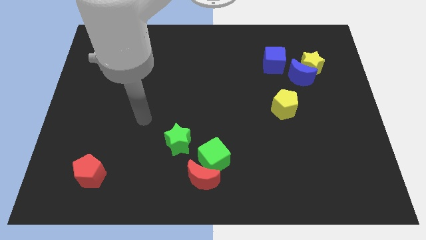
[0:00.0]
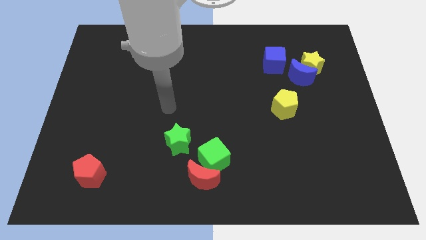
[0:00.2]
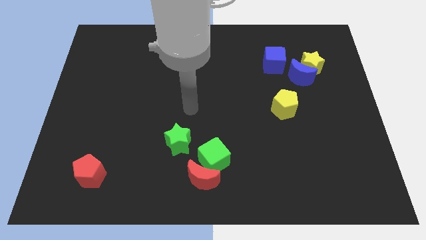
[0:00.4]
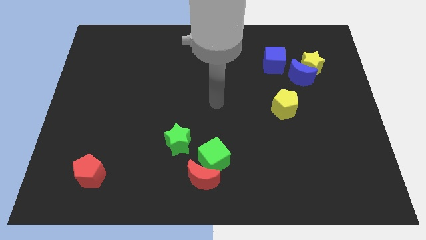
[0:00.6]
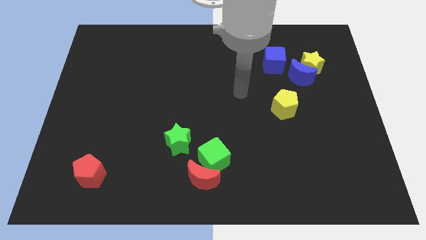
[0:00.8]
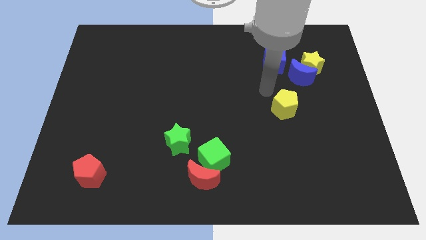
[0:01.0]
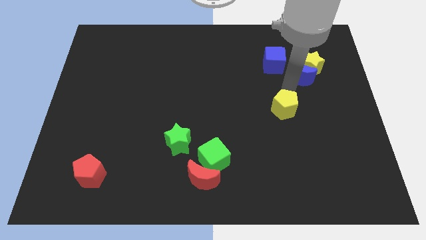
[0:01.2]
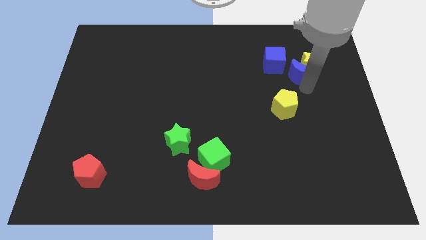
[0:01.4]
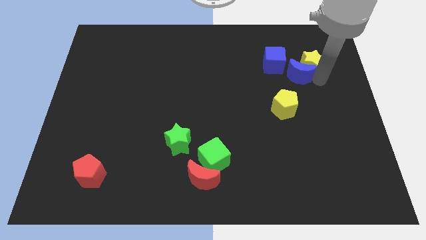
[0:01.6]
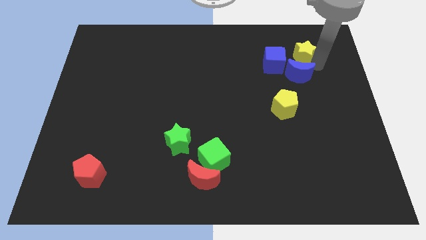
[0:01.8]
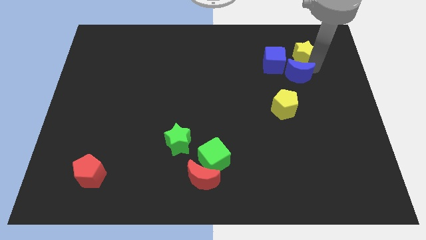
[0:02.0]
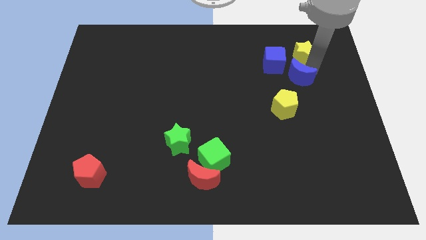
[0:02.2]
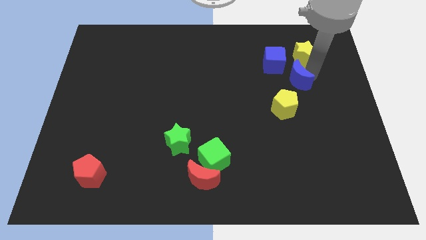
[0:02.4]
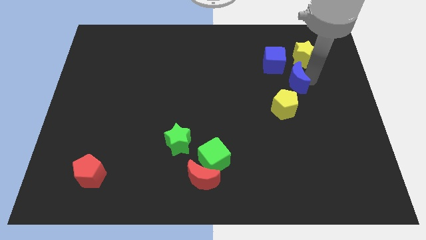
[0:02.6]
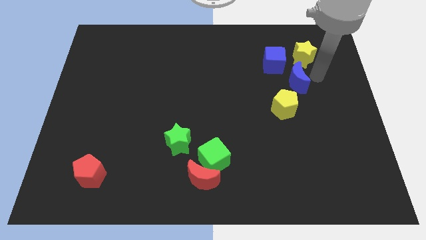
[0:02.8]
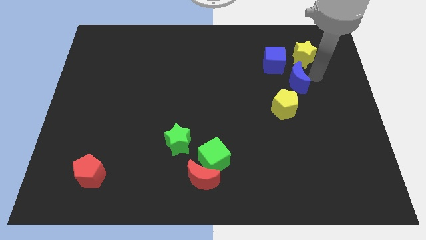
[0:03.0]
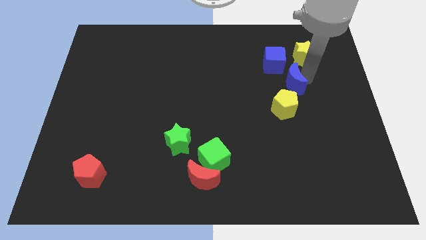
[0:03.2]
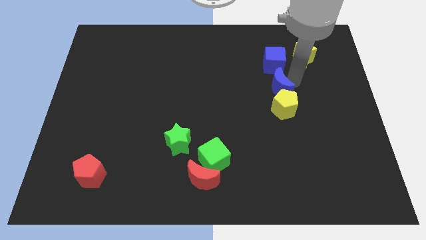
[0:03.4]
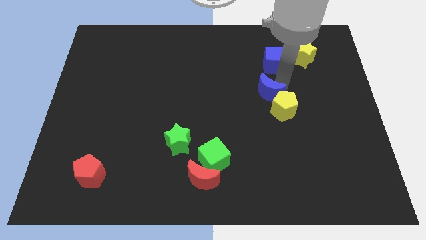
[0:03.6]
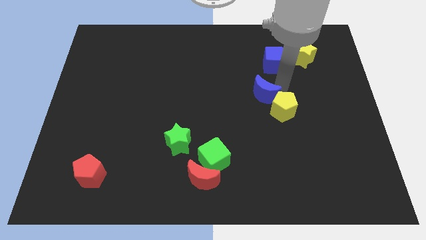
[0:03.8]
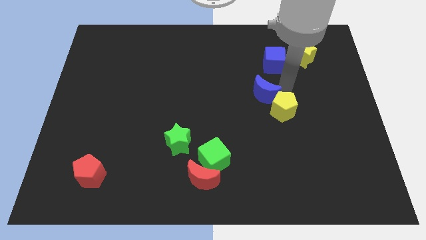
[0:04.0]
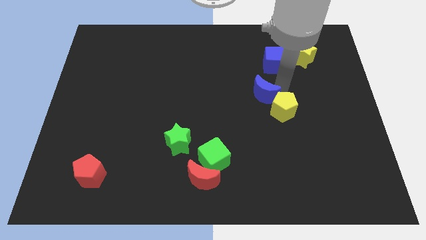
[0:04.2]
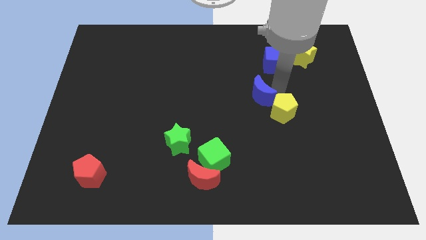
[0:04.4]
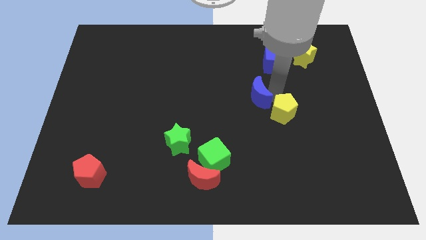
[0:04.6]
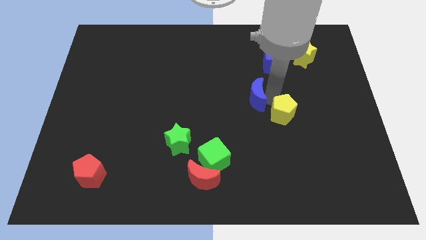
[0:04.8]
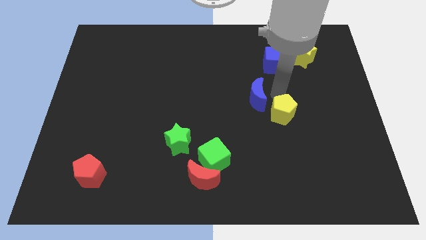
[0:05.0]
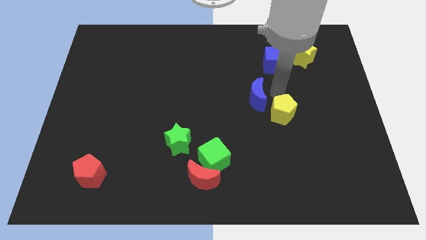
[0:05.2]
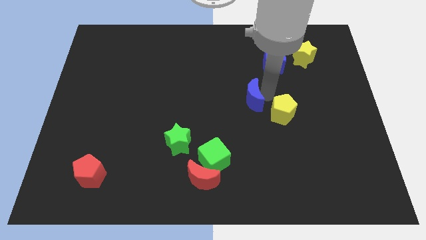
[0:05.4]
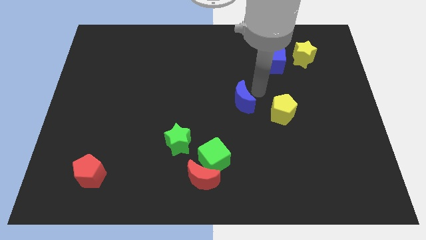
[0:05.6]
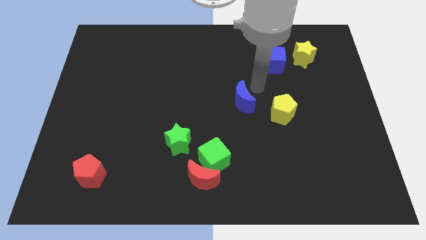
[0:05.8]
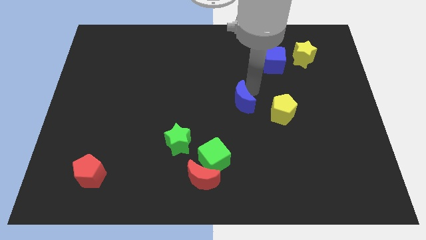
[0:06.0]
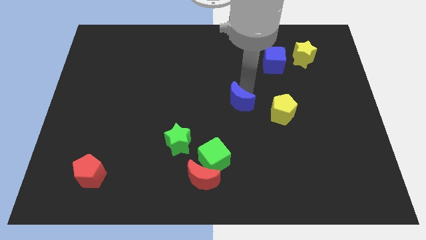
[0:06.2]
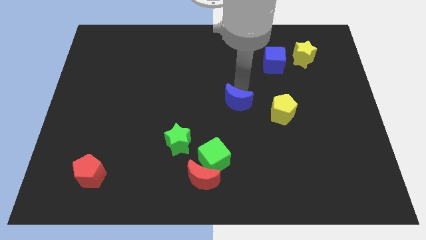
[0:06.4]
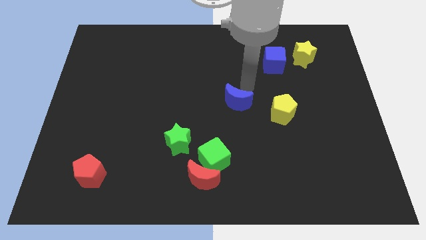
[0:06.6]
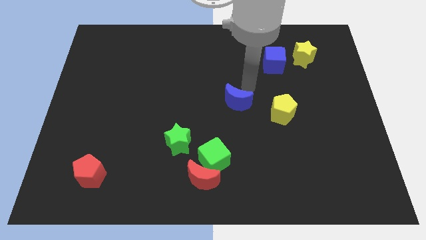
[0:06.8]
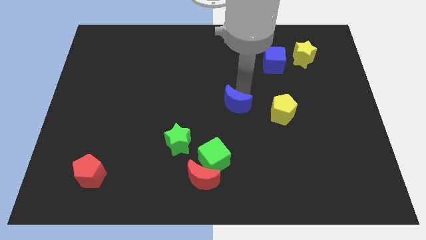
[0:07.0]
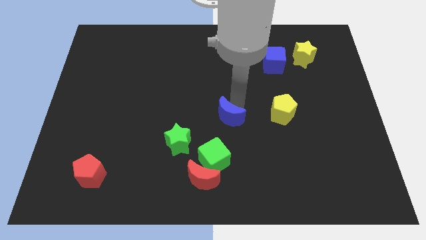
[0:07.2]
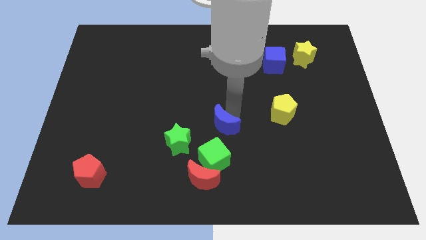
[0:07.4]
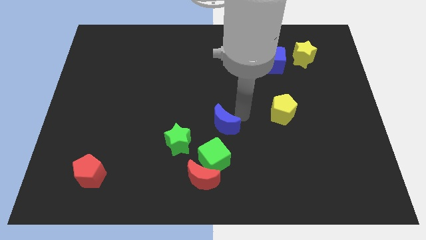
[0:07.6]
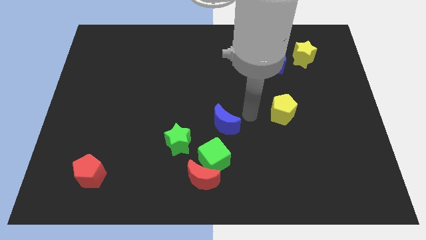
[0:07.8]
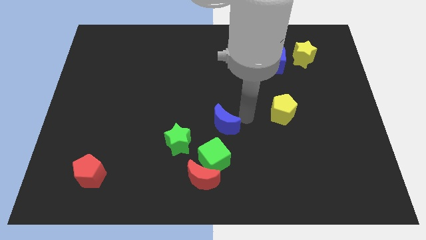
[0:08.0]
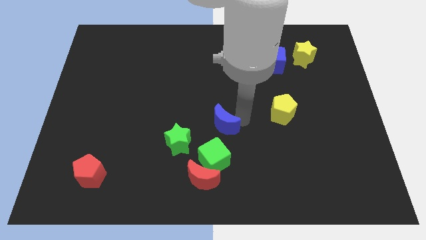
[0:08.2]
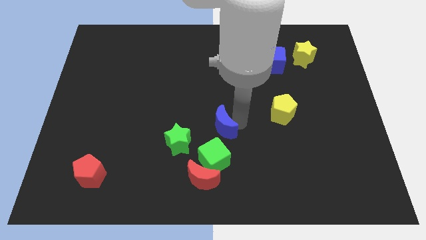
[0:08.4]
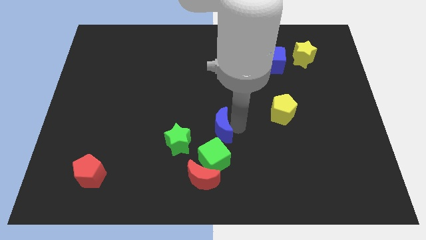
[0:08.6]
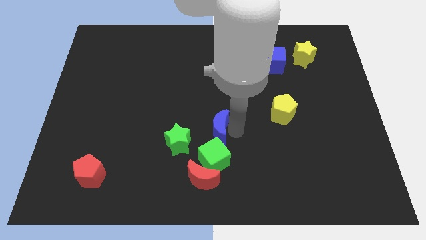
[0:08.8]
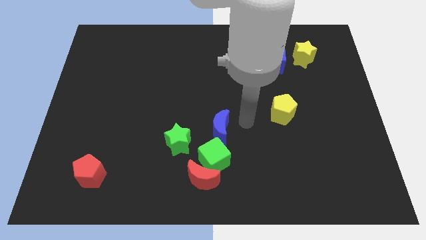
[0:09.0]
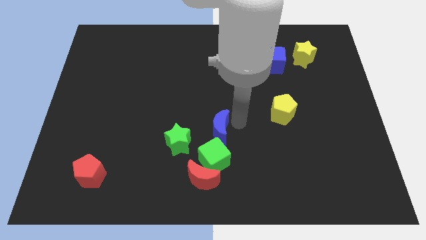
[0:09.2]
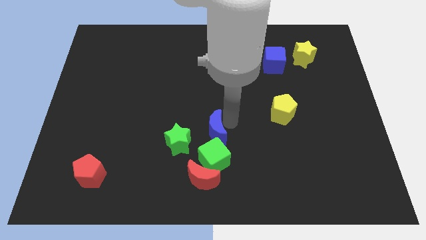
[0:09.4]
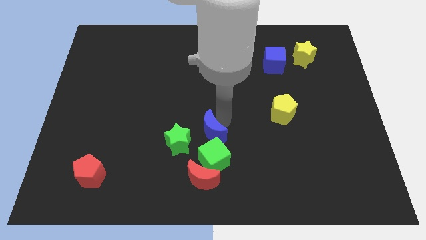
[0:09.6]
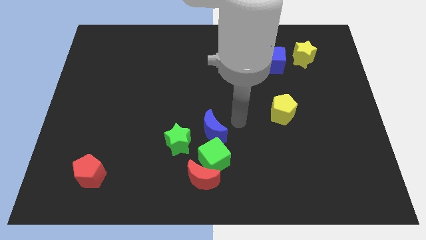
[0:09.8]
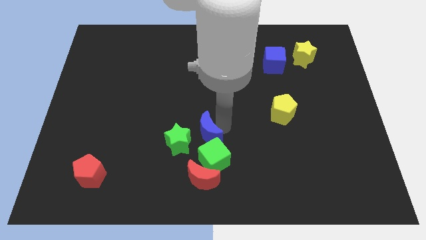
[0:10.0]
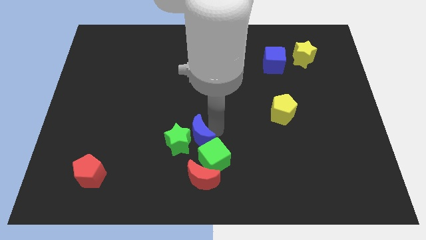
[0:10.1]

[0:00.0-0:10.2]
push the blue moon next to the green star

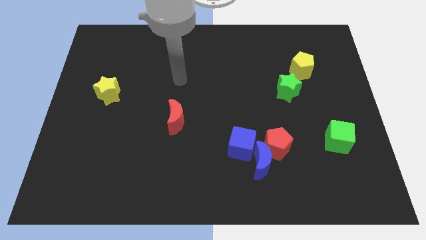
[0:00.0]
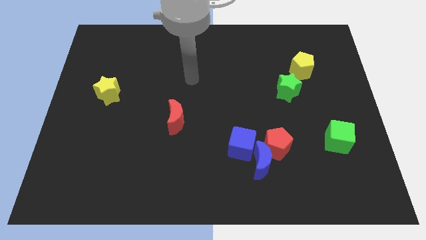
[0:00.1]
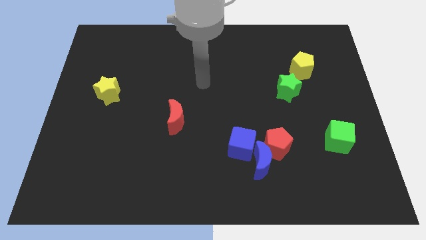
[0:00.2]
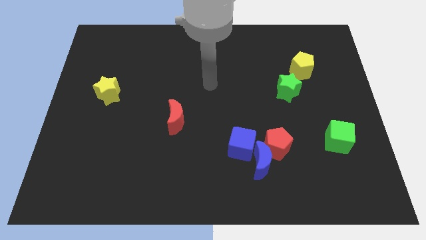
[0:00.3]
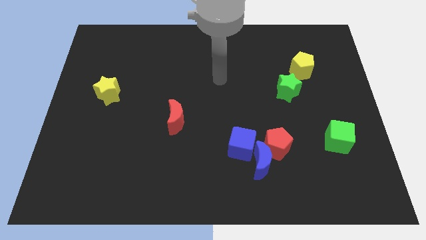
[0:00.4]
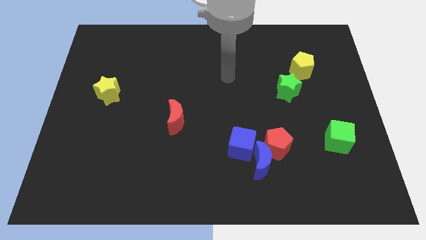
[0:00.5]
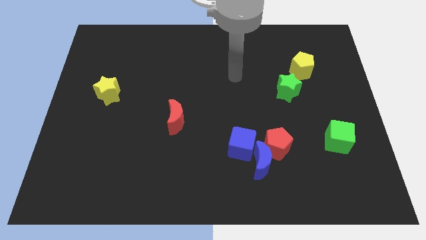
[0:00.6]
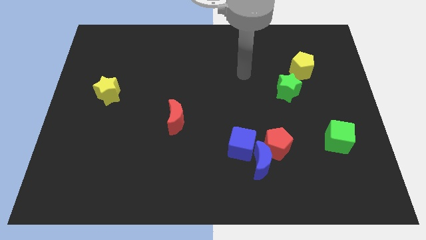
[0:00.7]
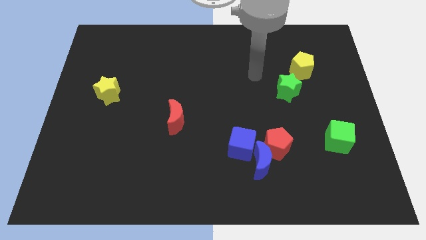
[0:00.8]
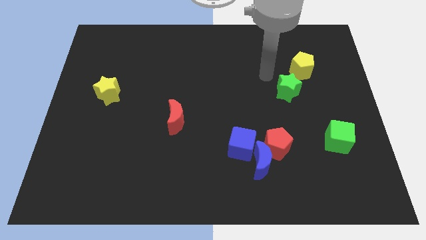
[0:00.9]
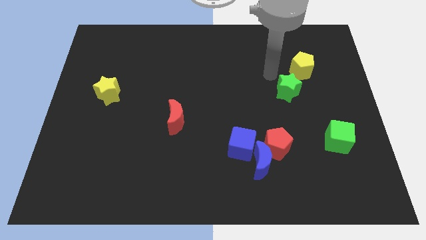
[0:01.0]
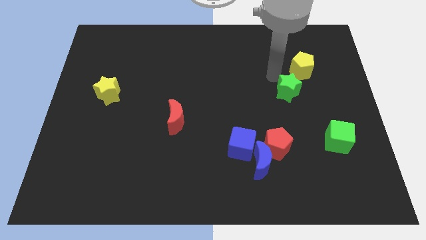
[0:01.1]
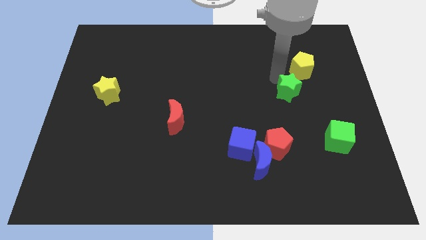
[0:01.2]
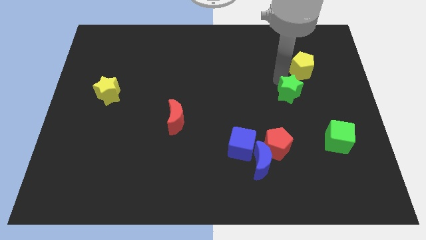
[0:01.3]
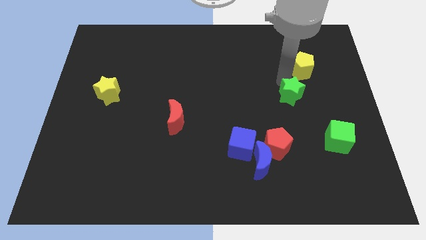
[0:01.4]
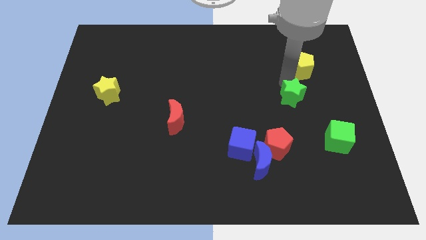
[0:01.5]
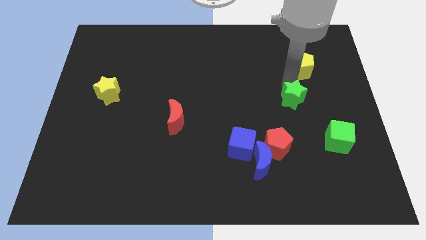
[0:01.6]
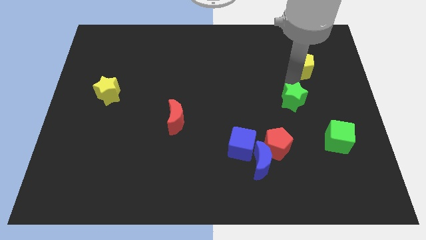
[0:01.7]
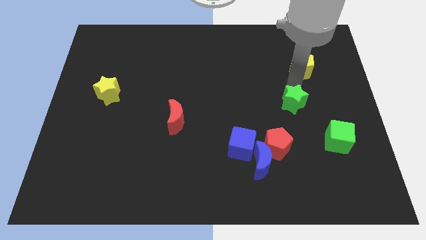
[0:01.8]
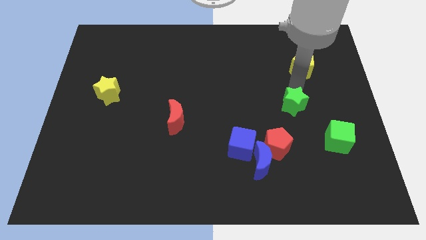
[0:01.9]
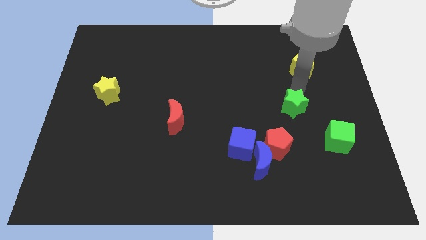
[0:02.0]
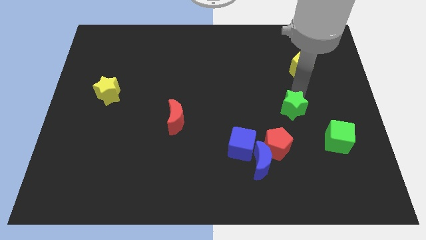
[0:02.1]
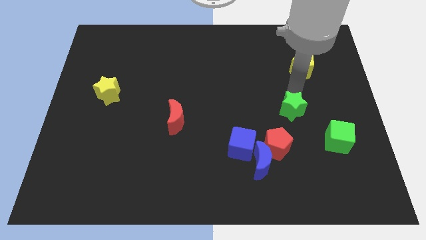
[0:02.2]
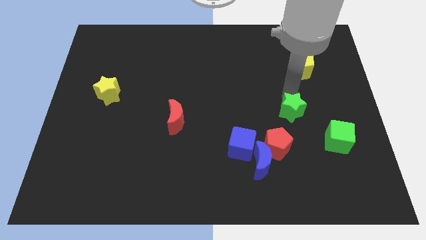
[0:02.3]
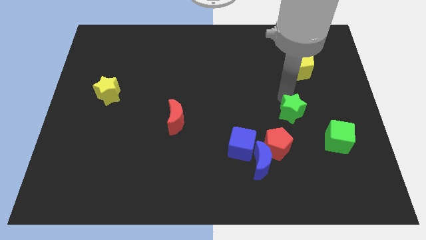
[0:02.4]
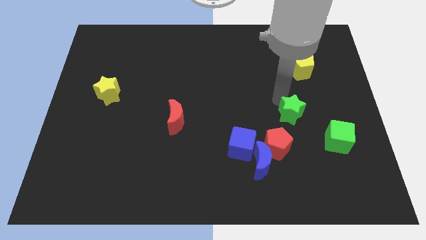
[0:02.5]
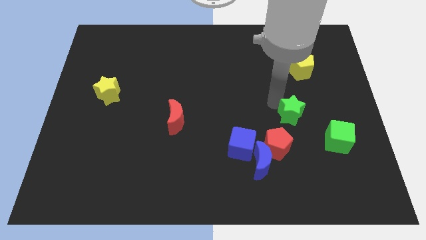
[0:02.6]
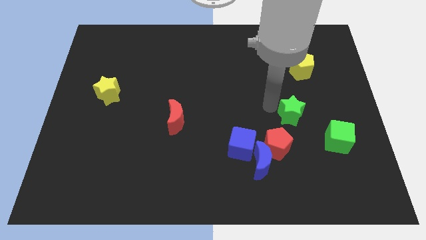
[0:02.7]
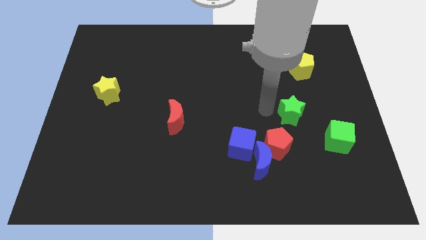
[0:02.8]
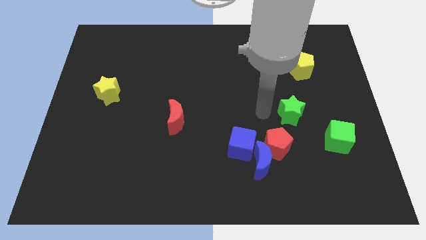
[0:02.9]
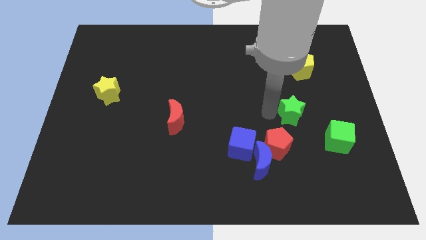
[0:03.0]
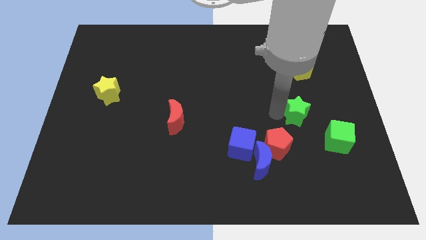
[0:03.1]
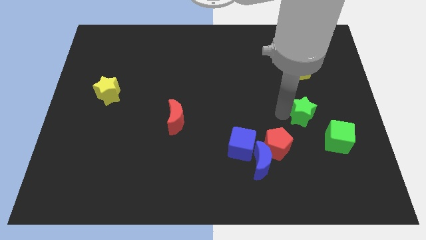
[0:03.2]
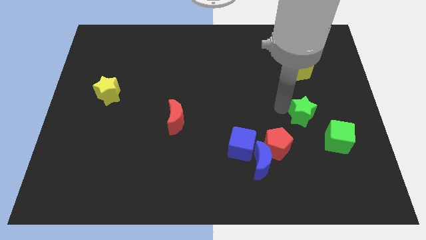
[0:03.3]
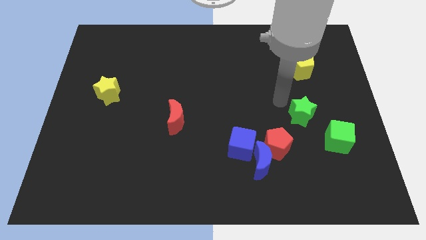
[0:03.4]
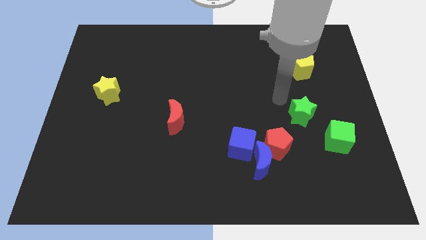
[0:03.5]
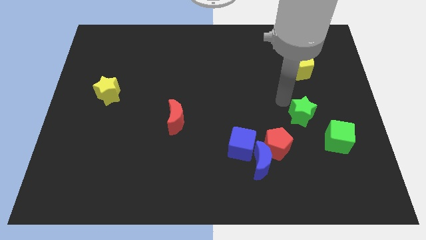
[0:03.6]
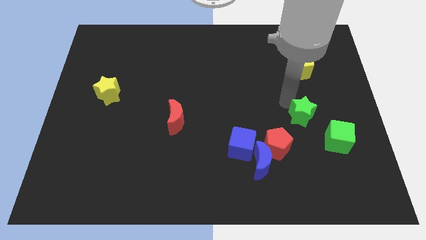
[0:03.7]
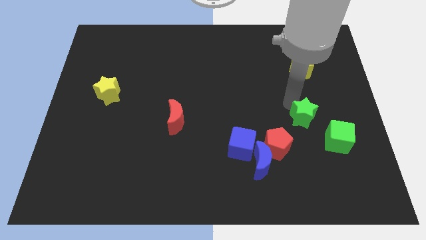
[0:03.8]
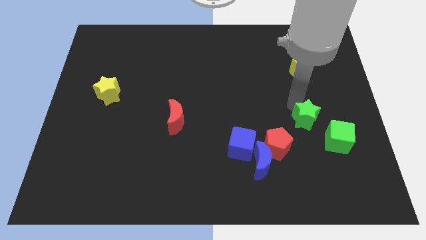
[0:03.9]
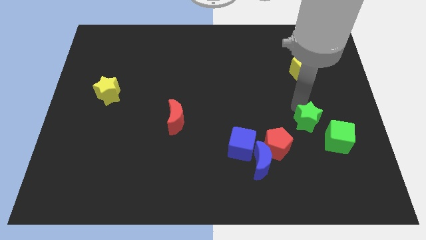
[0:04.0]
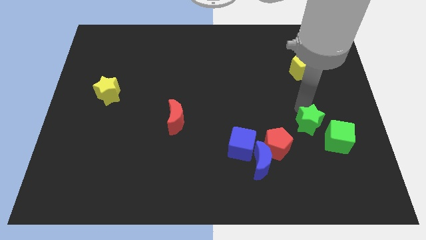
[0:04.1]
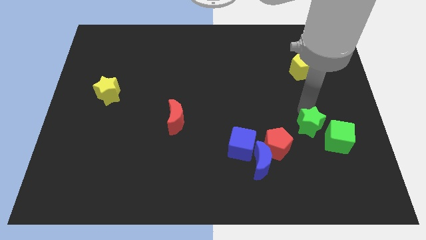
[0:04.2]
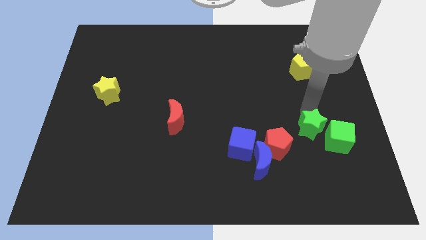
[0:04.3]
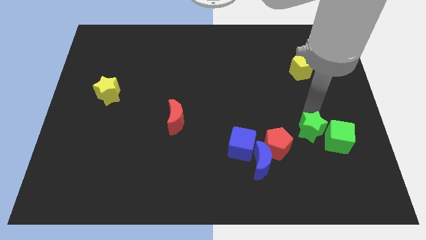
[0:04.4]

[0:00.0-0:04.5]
put the green star close to the green cube
